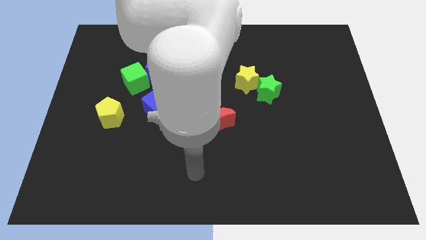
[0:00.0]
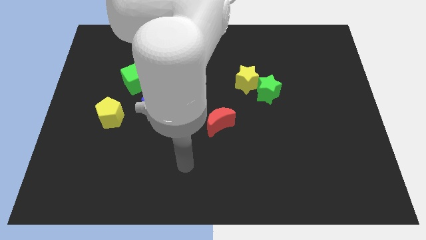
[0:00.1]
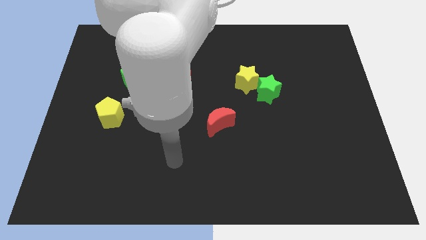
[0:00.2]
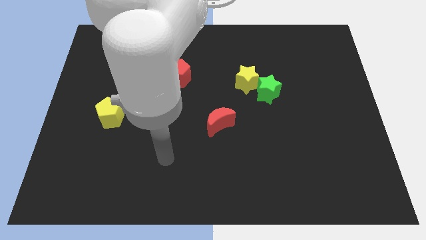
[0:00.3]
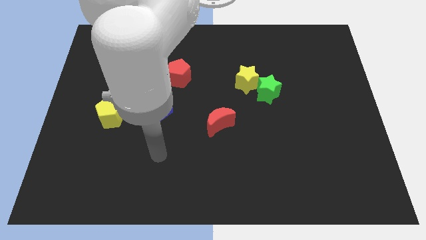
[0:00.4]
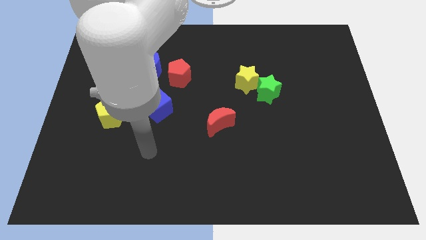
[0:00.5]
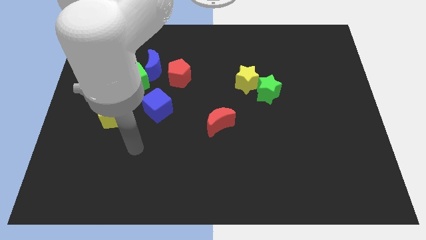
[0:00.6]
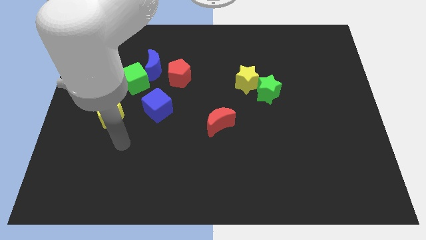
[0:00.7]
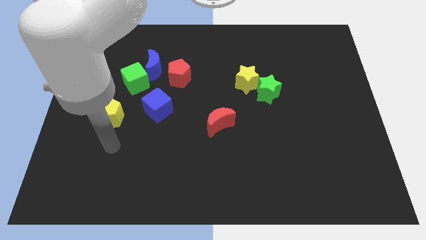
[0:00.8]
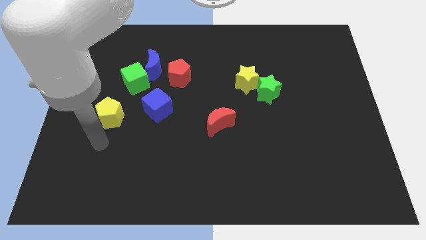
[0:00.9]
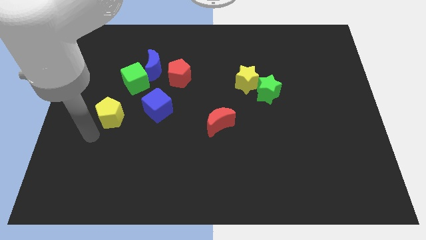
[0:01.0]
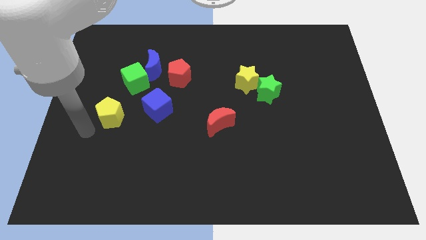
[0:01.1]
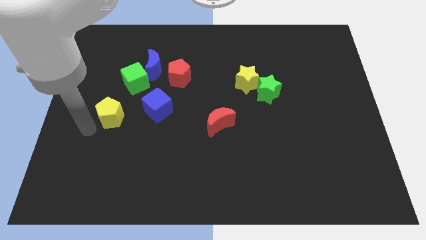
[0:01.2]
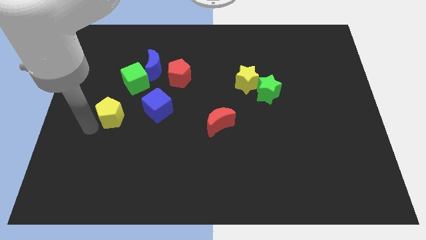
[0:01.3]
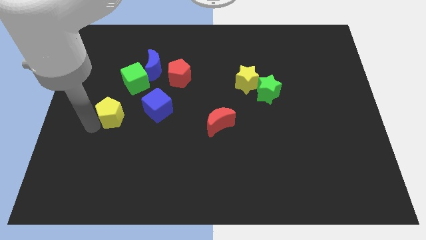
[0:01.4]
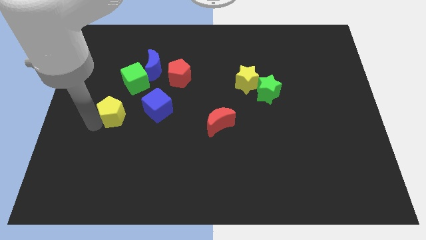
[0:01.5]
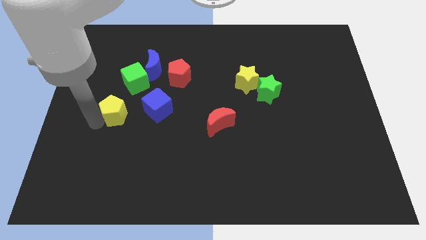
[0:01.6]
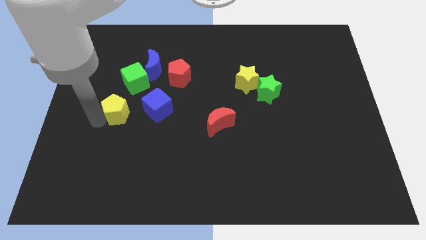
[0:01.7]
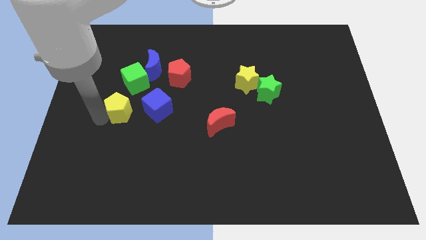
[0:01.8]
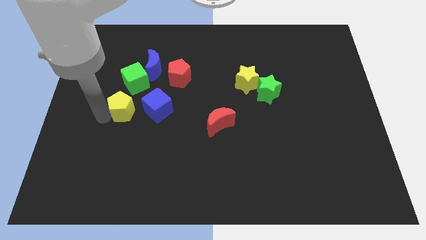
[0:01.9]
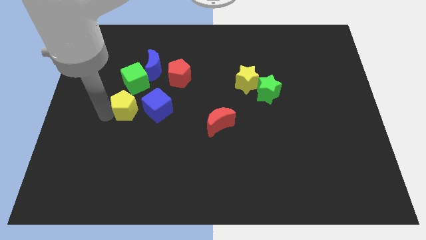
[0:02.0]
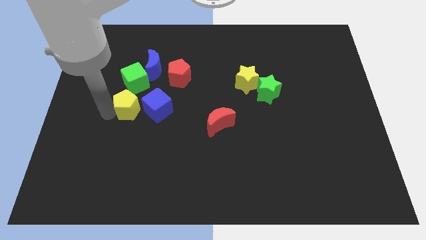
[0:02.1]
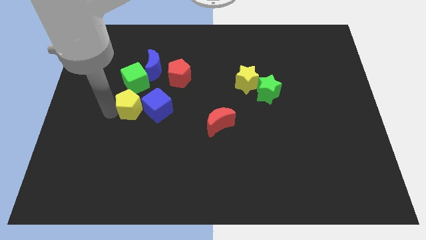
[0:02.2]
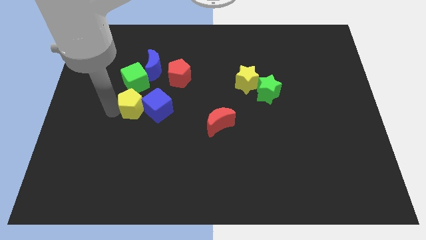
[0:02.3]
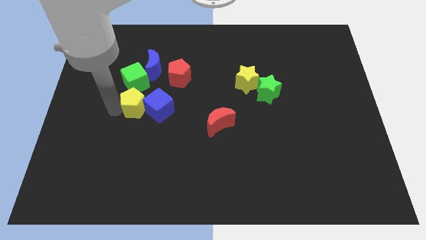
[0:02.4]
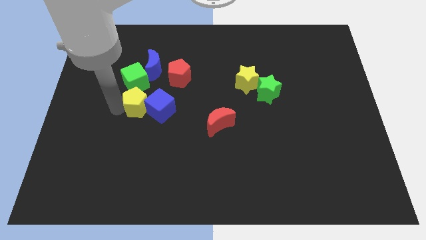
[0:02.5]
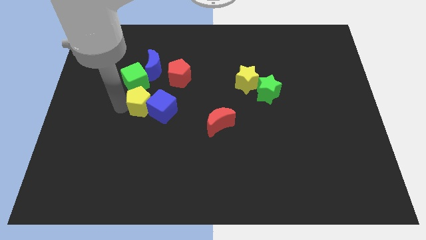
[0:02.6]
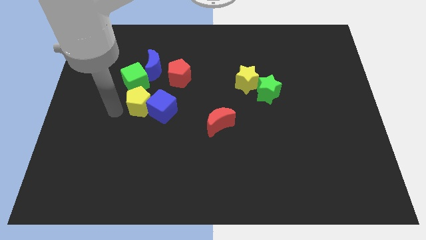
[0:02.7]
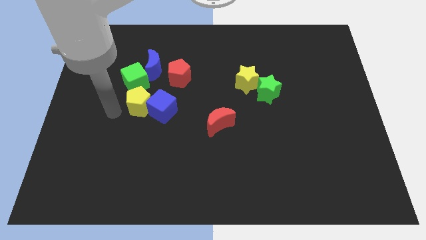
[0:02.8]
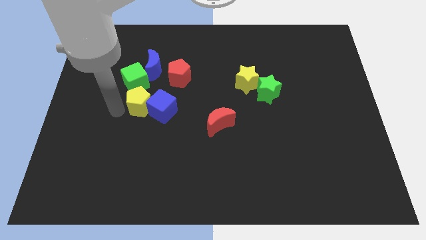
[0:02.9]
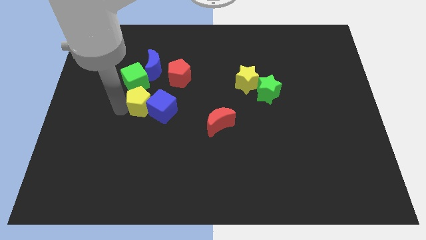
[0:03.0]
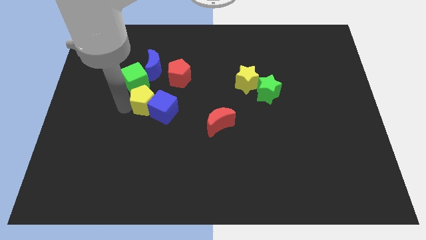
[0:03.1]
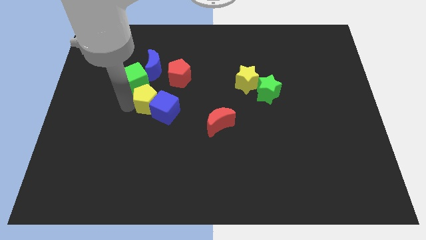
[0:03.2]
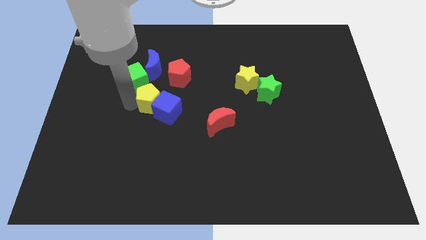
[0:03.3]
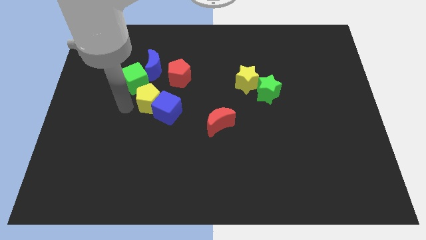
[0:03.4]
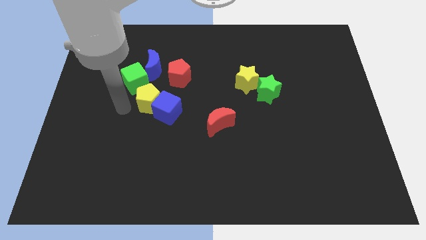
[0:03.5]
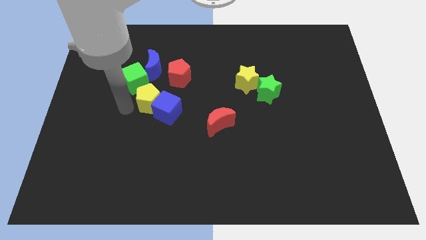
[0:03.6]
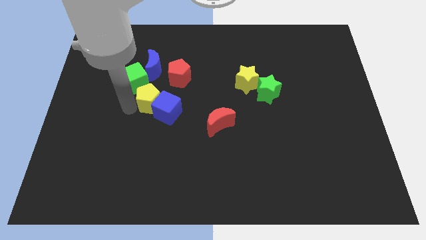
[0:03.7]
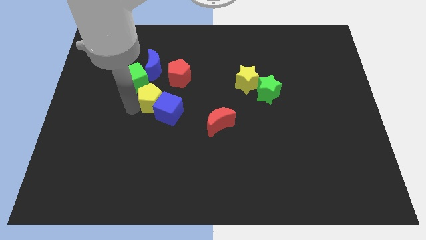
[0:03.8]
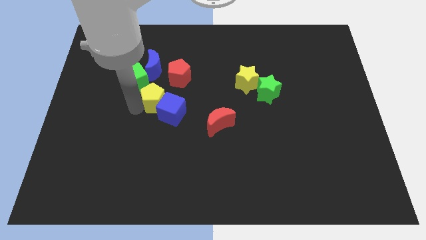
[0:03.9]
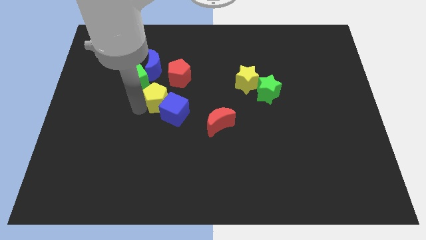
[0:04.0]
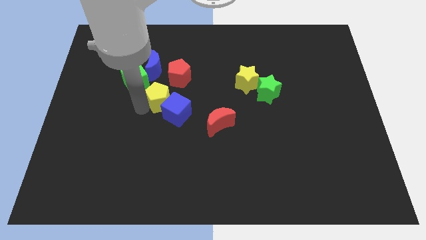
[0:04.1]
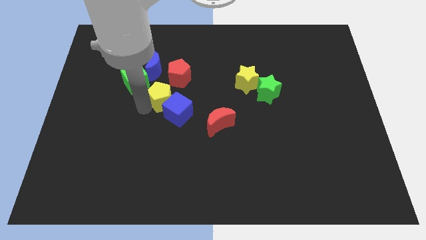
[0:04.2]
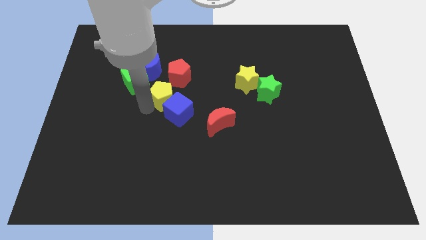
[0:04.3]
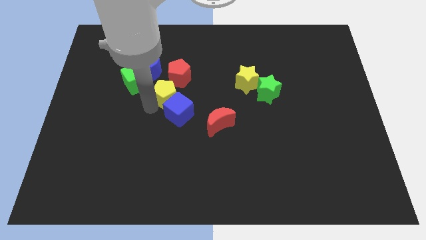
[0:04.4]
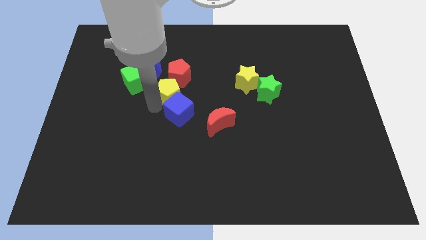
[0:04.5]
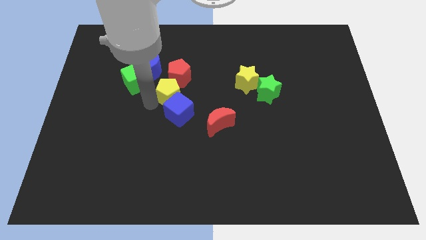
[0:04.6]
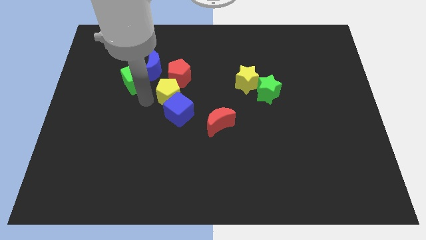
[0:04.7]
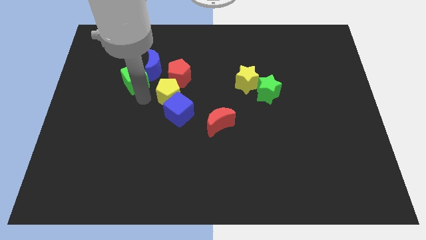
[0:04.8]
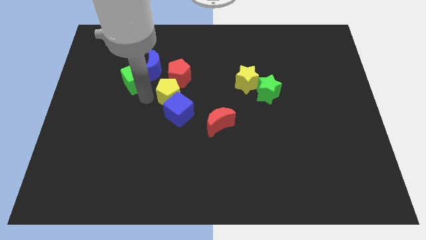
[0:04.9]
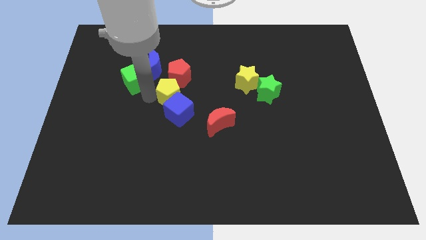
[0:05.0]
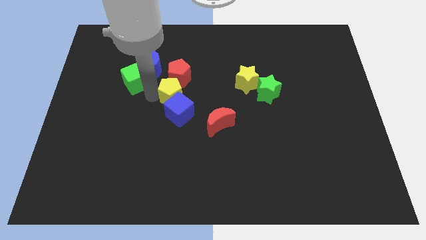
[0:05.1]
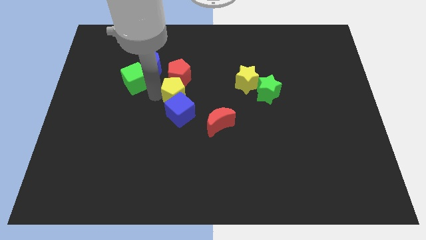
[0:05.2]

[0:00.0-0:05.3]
slide the yellow pentagon to the bottom right of the red pentagon

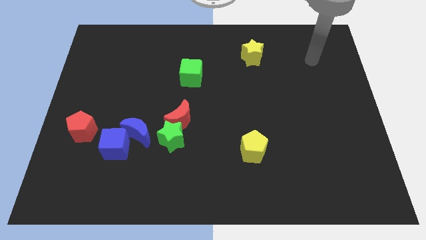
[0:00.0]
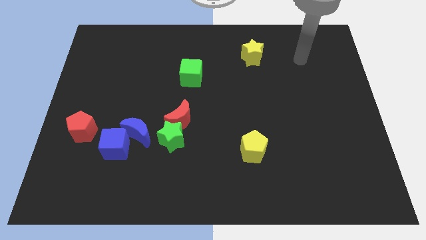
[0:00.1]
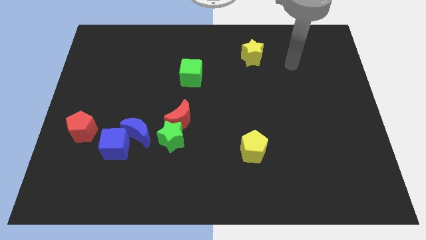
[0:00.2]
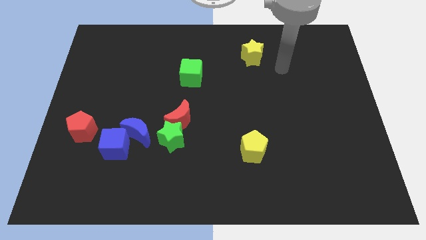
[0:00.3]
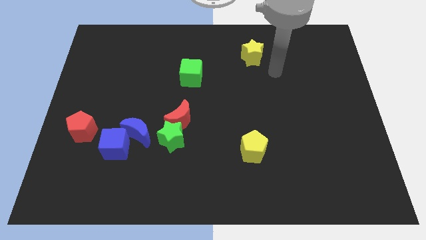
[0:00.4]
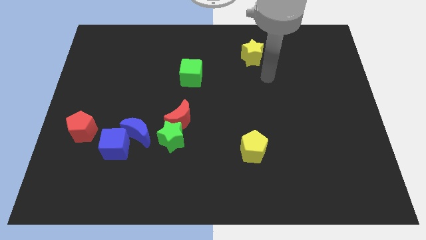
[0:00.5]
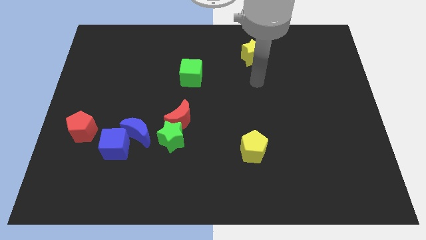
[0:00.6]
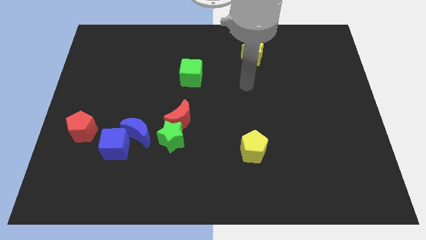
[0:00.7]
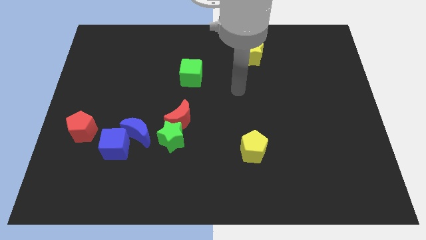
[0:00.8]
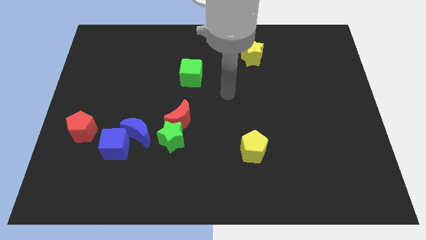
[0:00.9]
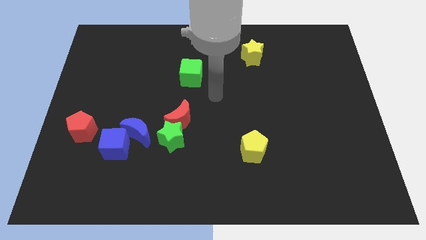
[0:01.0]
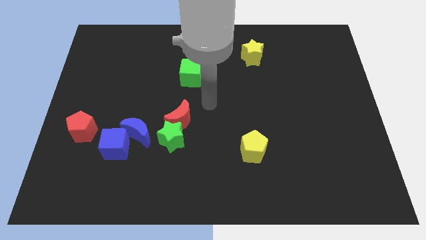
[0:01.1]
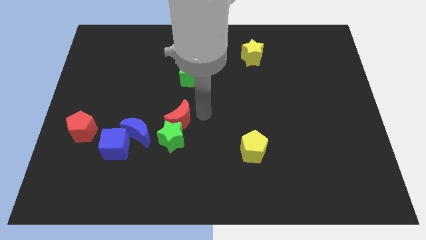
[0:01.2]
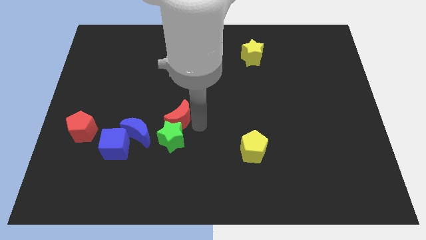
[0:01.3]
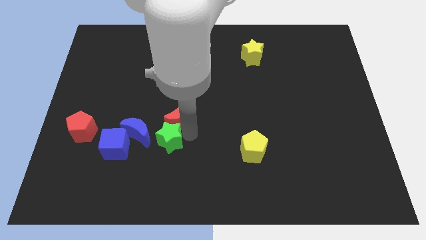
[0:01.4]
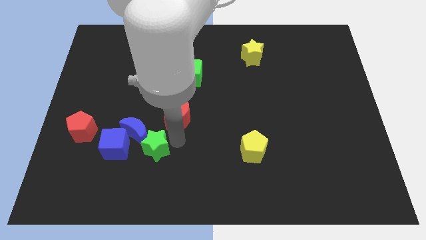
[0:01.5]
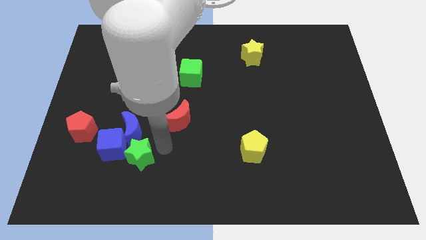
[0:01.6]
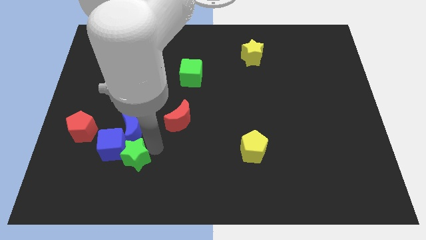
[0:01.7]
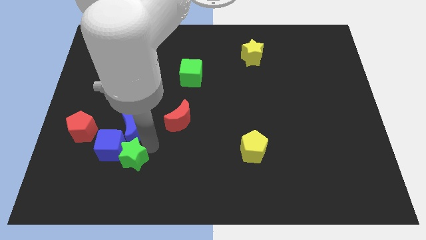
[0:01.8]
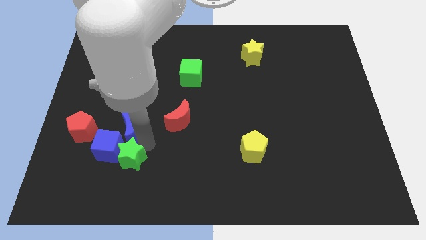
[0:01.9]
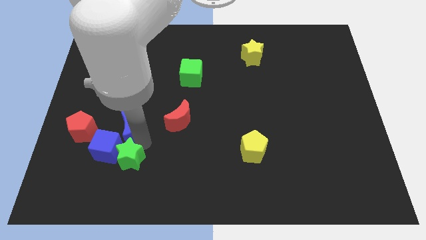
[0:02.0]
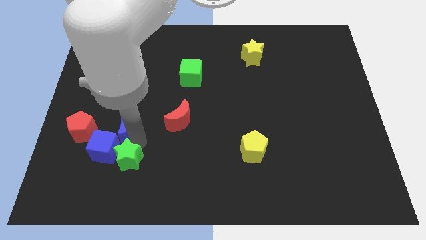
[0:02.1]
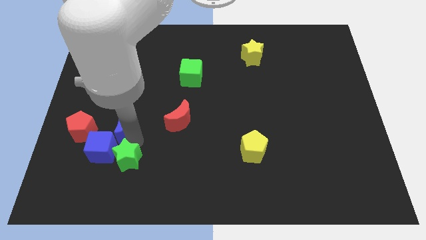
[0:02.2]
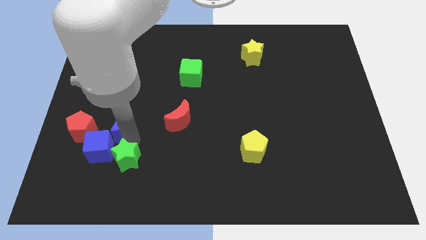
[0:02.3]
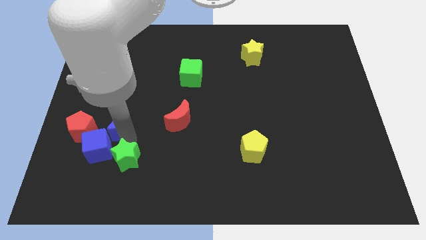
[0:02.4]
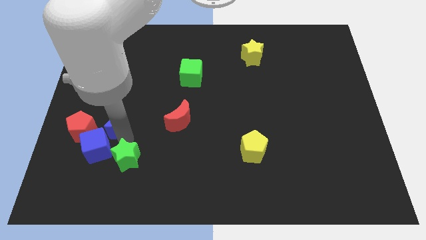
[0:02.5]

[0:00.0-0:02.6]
move the blue moon to the top right of the red pentagon
